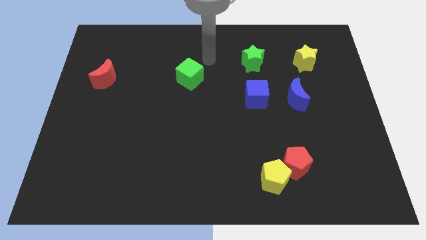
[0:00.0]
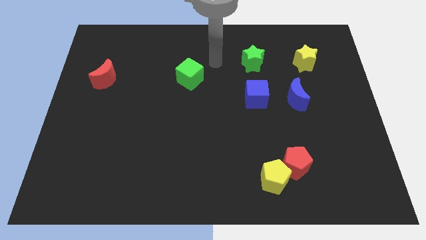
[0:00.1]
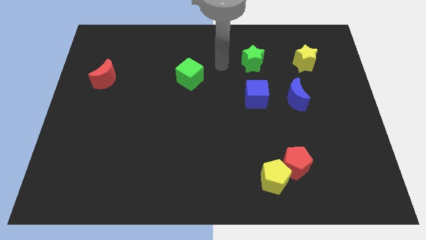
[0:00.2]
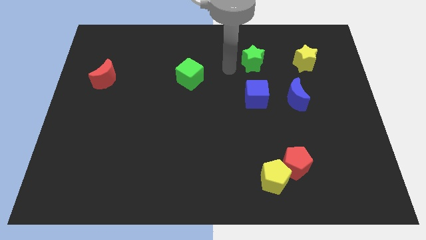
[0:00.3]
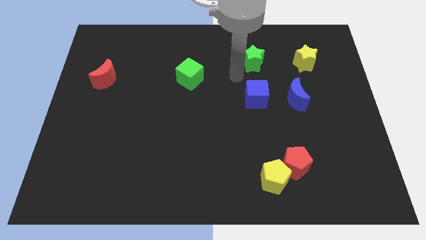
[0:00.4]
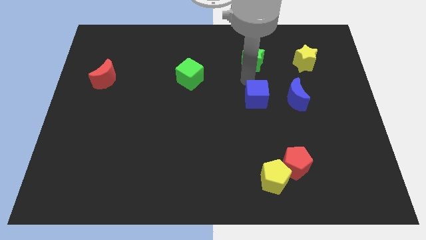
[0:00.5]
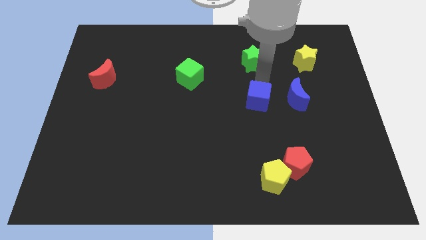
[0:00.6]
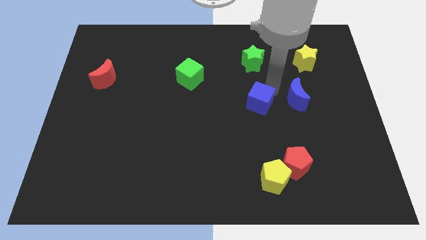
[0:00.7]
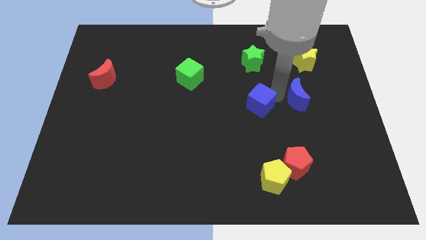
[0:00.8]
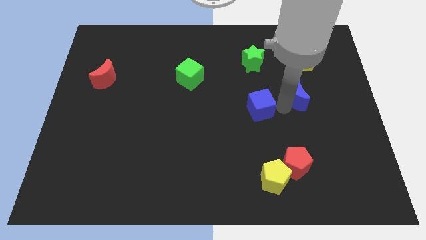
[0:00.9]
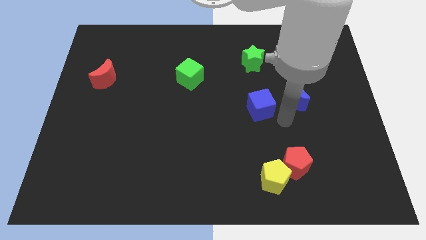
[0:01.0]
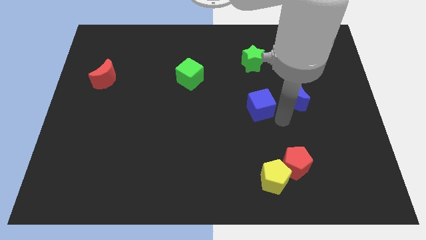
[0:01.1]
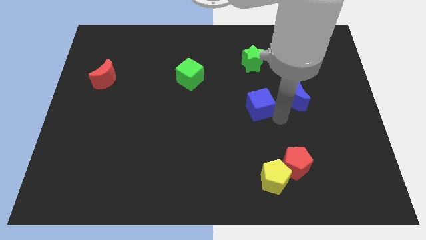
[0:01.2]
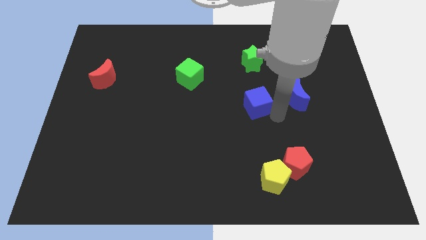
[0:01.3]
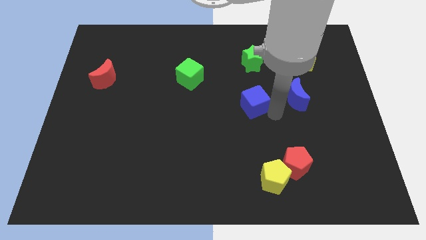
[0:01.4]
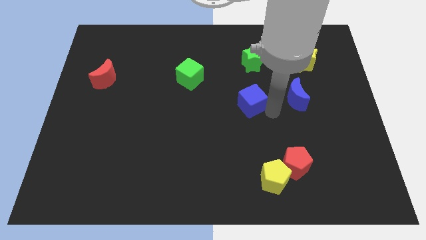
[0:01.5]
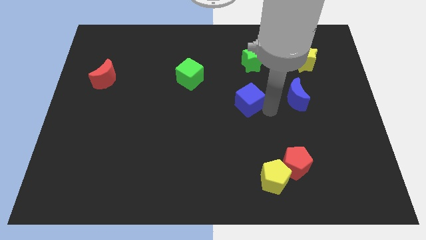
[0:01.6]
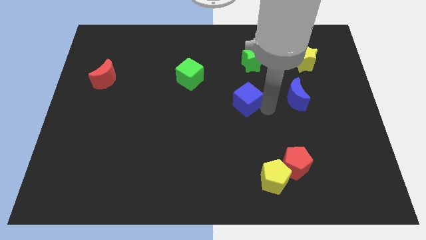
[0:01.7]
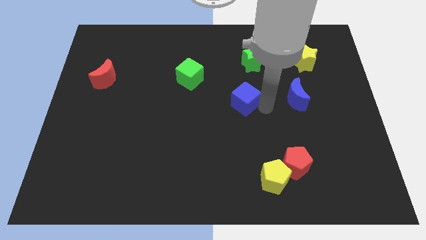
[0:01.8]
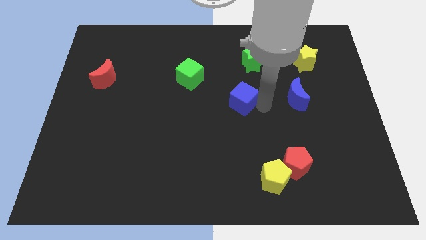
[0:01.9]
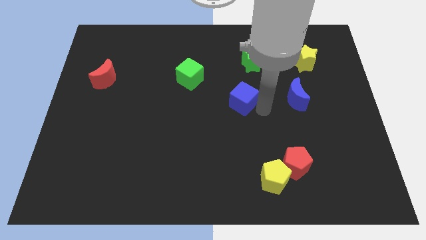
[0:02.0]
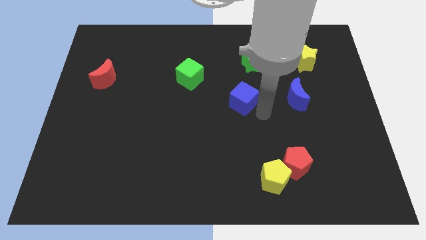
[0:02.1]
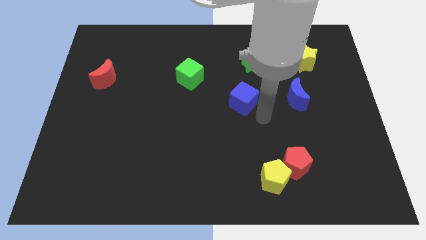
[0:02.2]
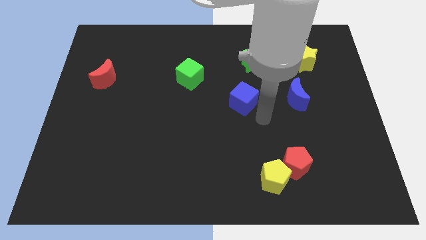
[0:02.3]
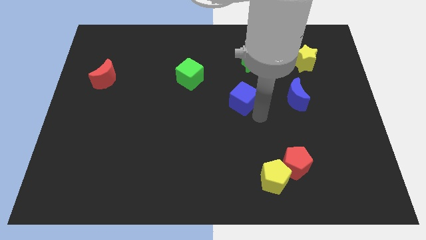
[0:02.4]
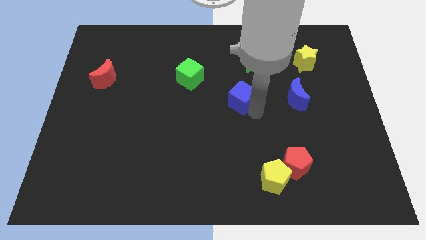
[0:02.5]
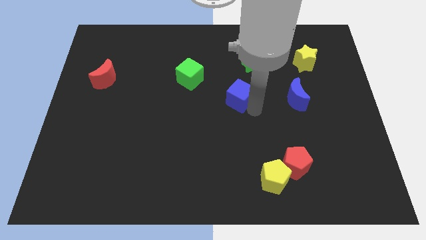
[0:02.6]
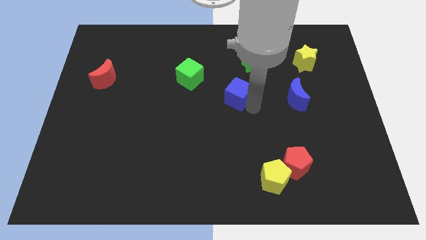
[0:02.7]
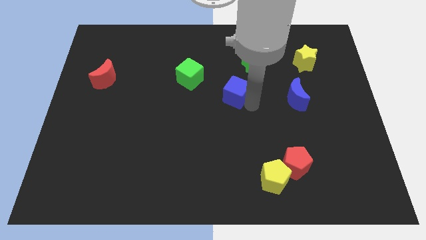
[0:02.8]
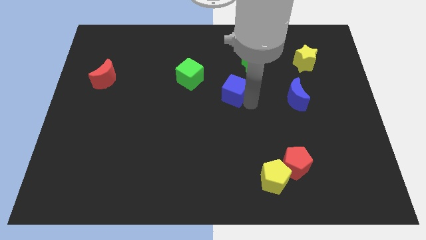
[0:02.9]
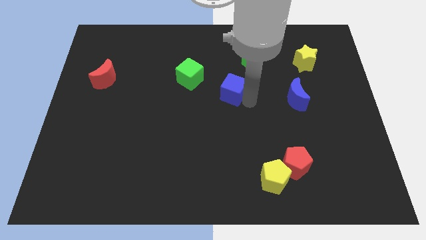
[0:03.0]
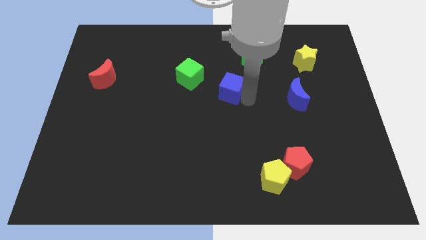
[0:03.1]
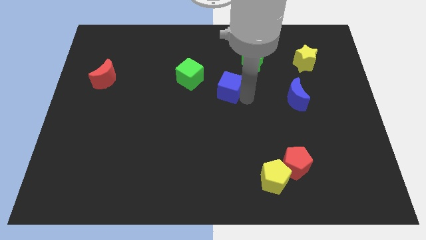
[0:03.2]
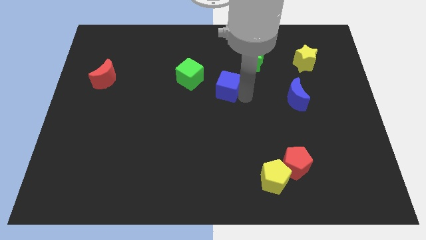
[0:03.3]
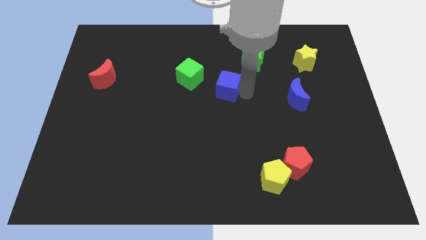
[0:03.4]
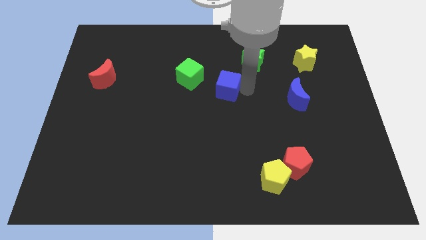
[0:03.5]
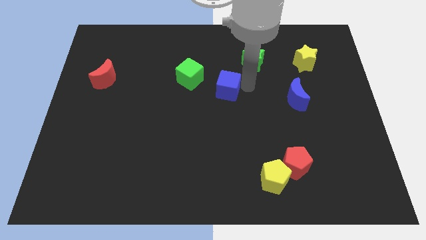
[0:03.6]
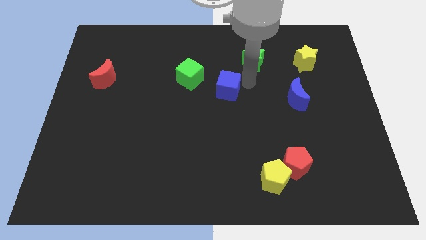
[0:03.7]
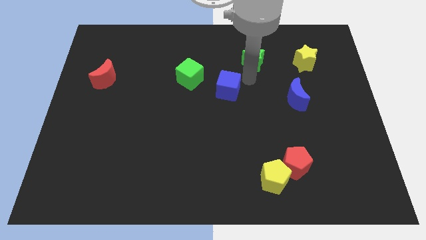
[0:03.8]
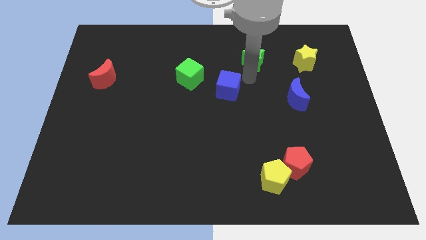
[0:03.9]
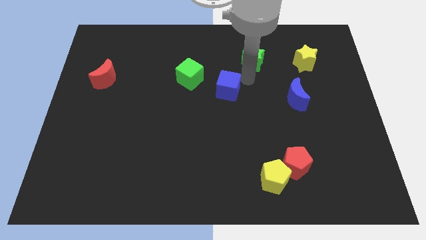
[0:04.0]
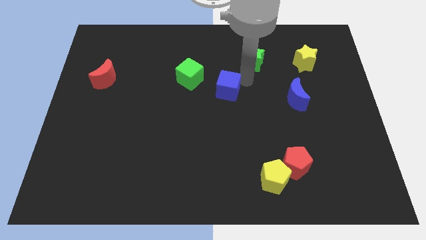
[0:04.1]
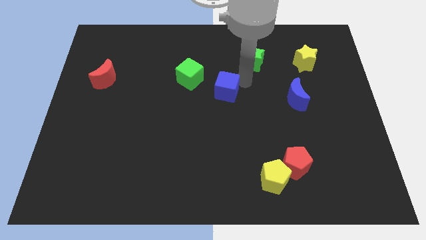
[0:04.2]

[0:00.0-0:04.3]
slide the blue cube to the left a bit

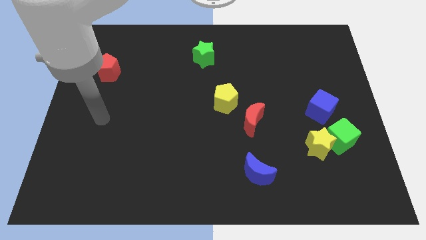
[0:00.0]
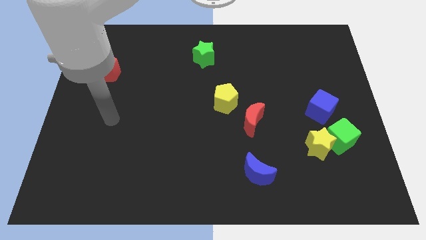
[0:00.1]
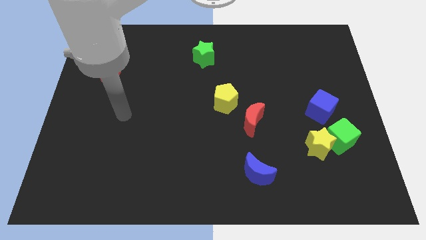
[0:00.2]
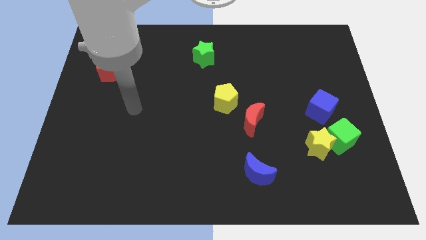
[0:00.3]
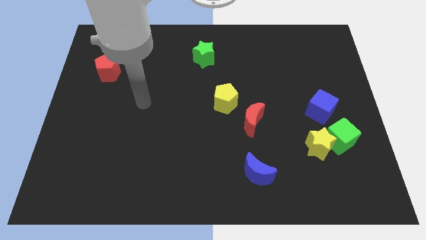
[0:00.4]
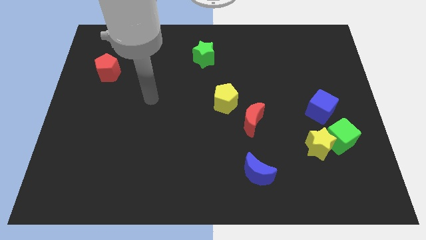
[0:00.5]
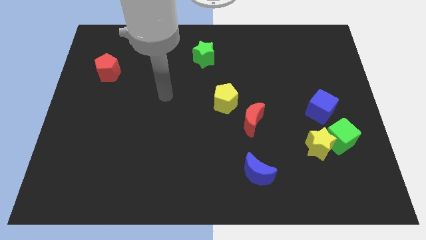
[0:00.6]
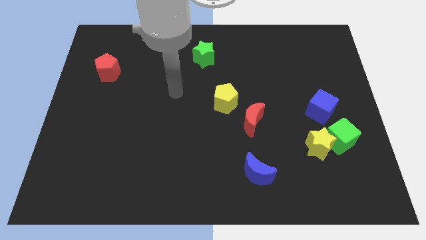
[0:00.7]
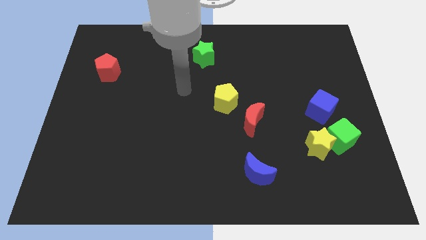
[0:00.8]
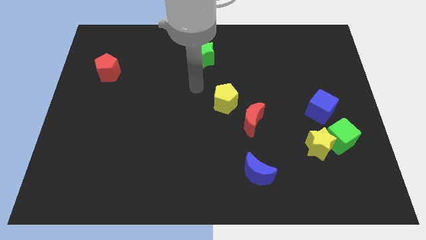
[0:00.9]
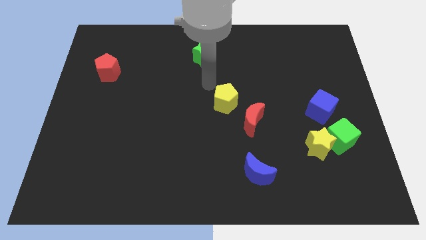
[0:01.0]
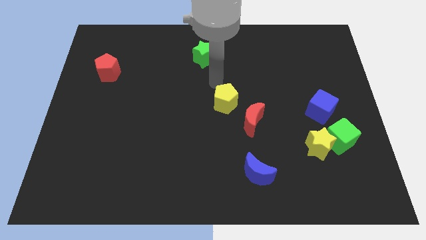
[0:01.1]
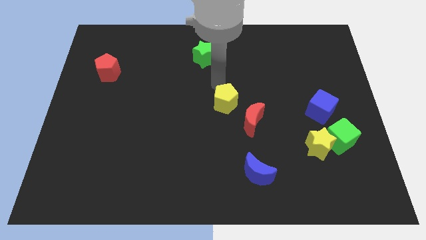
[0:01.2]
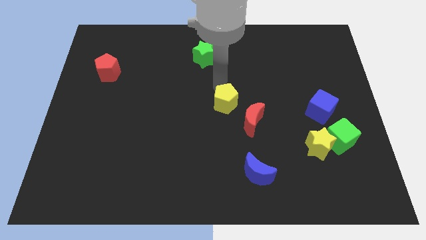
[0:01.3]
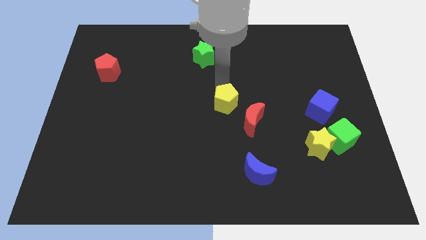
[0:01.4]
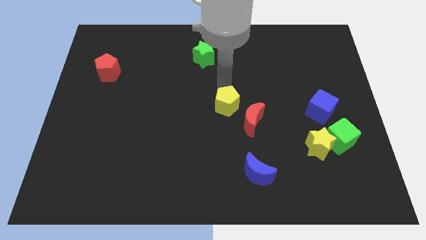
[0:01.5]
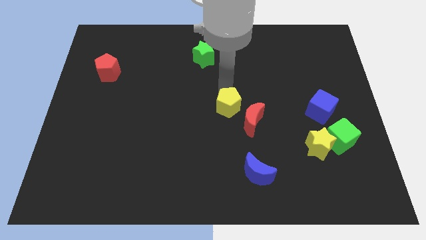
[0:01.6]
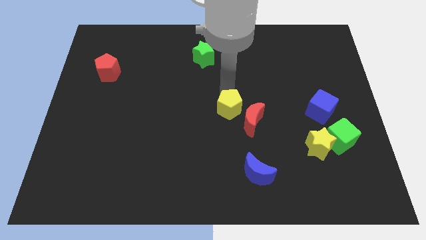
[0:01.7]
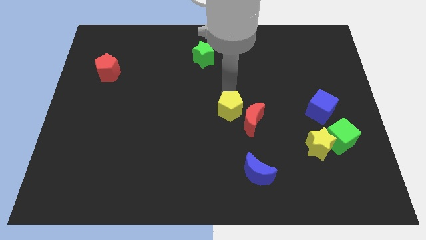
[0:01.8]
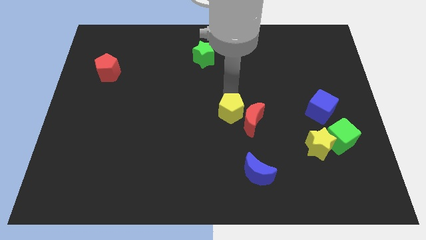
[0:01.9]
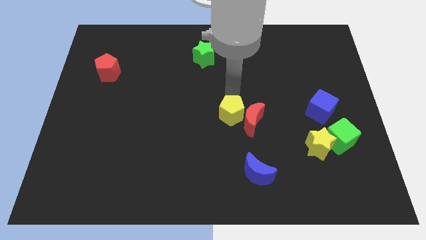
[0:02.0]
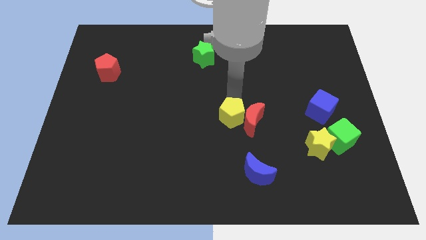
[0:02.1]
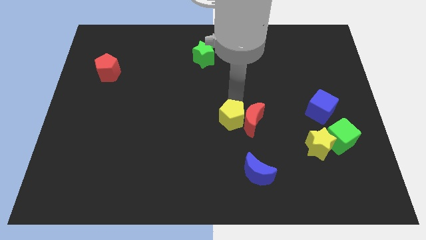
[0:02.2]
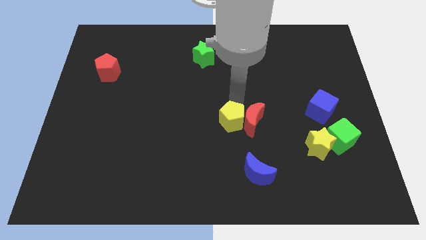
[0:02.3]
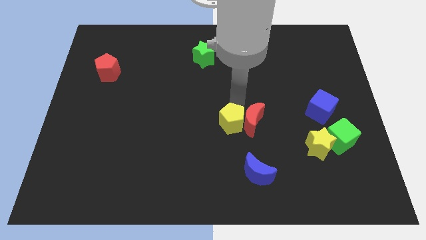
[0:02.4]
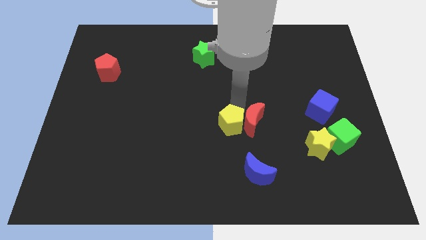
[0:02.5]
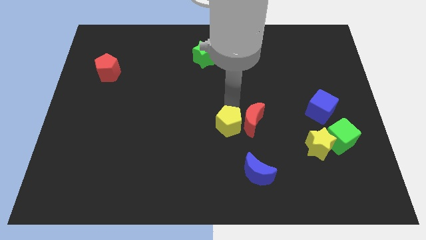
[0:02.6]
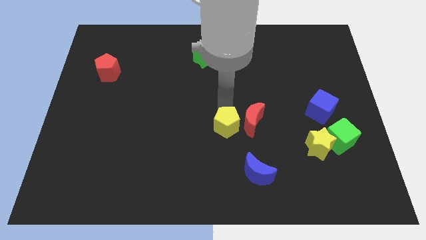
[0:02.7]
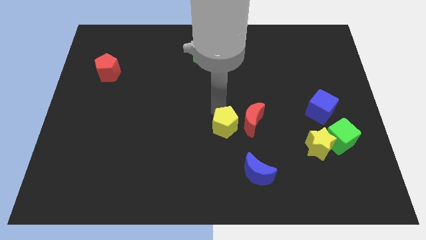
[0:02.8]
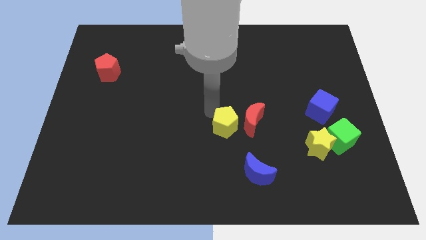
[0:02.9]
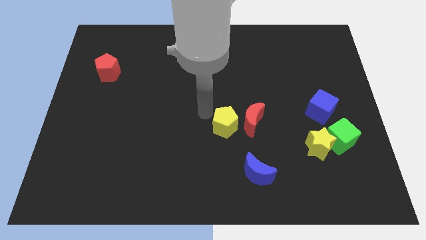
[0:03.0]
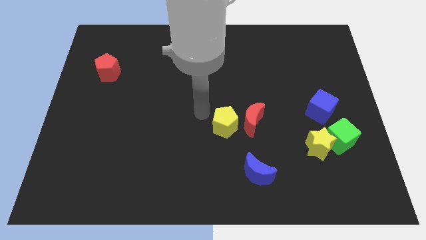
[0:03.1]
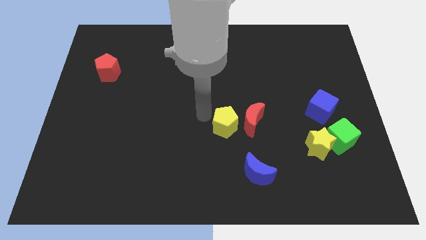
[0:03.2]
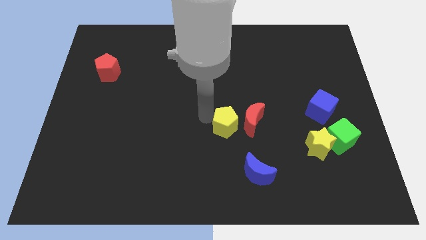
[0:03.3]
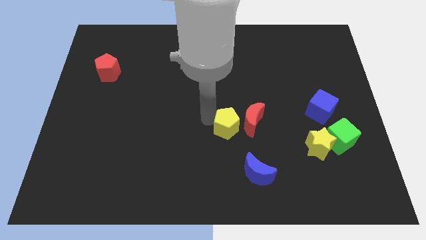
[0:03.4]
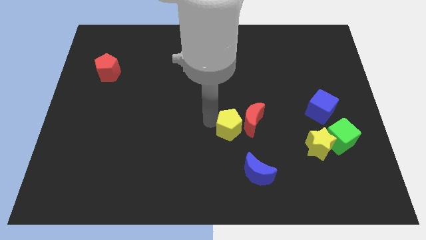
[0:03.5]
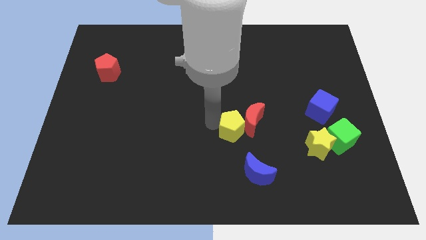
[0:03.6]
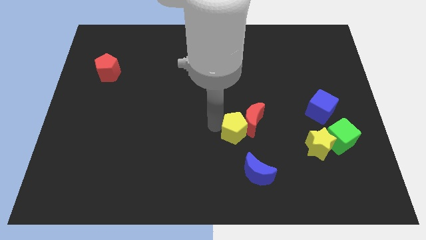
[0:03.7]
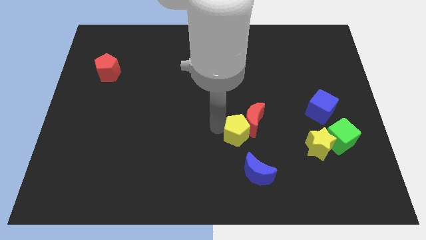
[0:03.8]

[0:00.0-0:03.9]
move the yellow pentagon down and right slightly

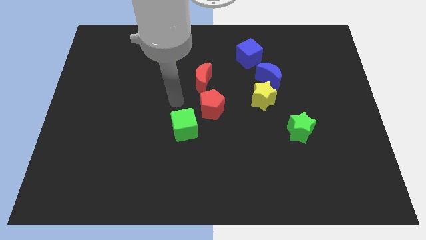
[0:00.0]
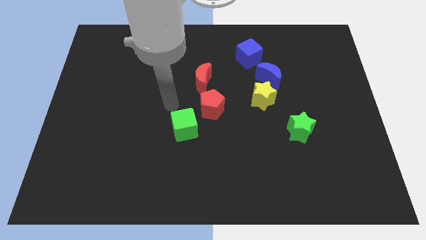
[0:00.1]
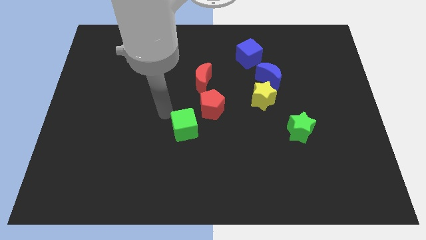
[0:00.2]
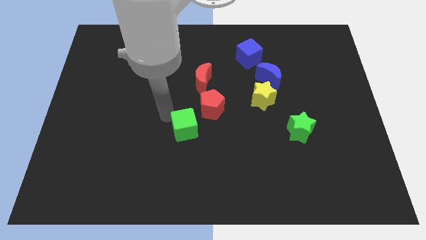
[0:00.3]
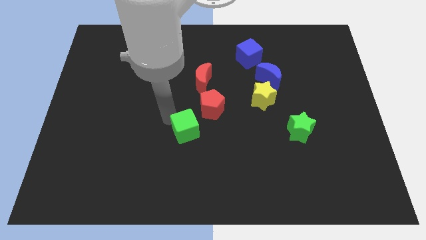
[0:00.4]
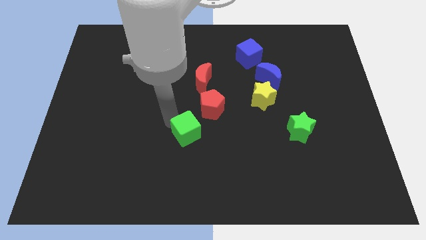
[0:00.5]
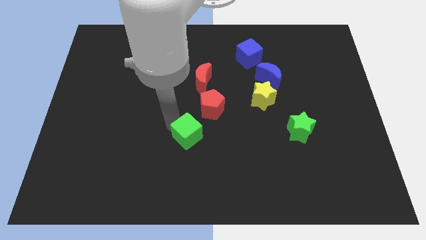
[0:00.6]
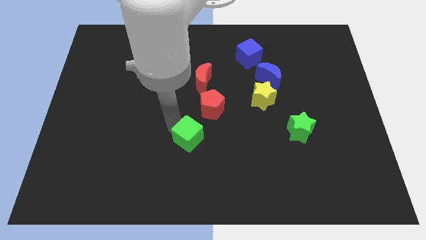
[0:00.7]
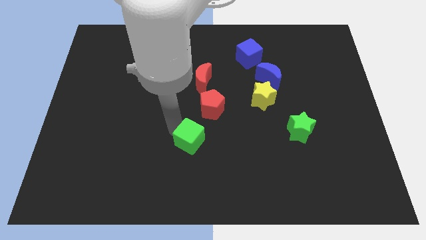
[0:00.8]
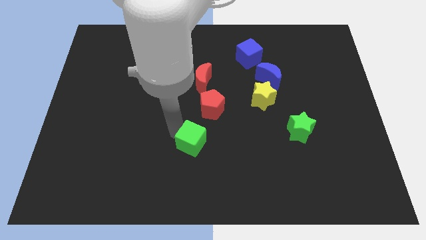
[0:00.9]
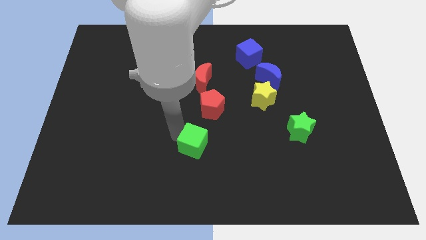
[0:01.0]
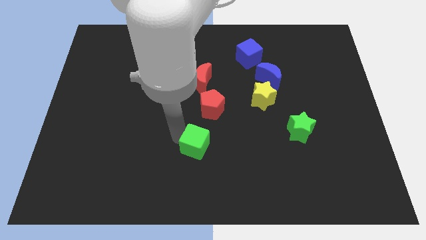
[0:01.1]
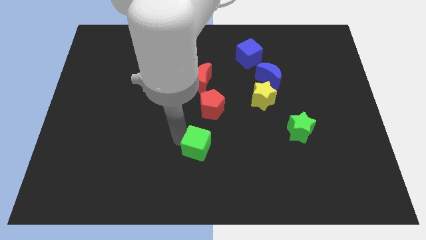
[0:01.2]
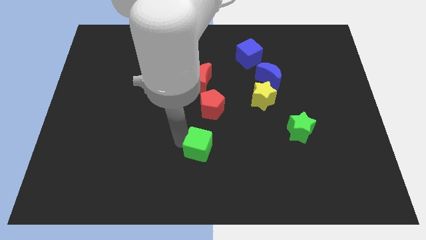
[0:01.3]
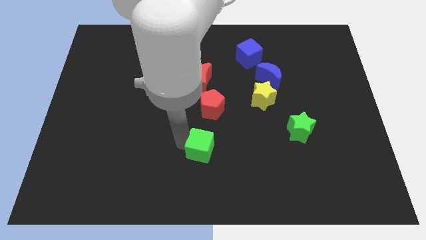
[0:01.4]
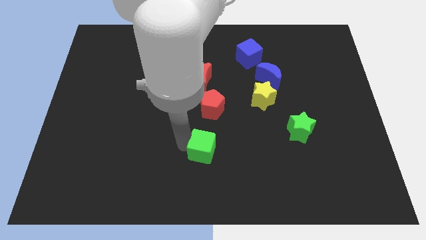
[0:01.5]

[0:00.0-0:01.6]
slide the green cube down and to the right a bit
